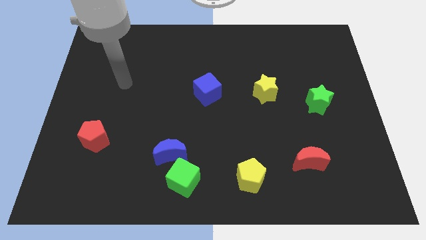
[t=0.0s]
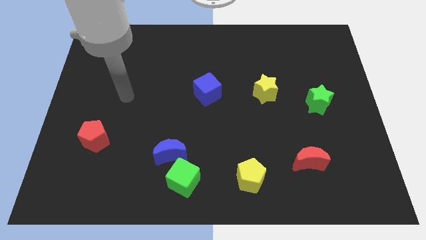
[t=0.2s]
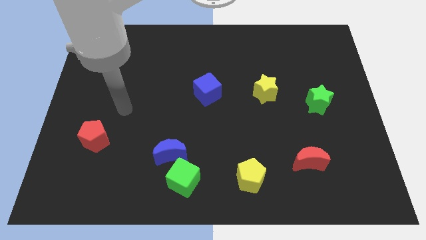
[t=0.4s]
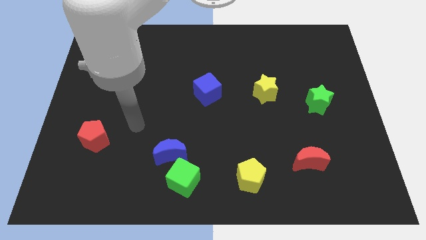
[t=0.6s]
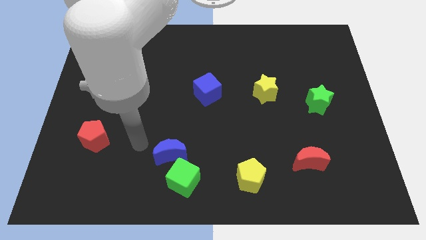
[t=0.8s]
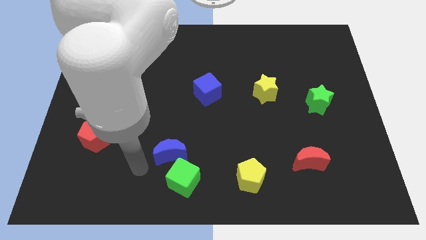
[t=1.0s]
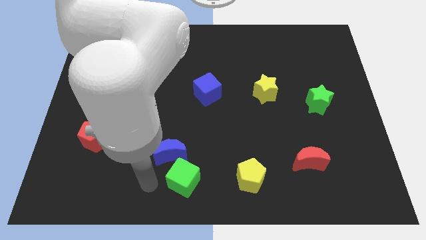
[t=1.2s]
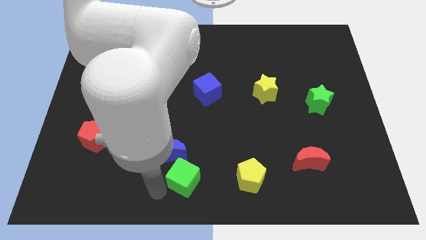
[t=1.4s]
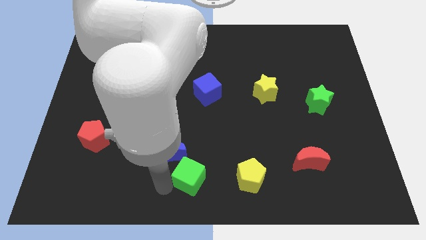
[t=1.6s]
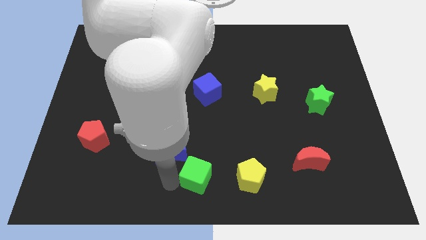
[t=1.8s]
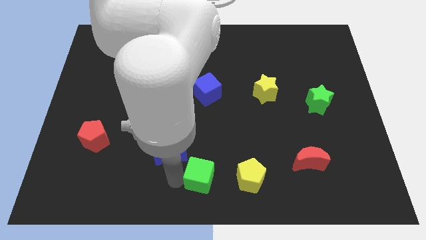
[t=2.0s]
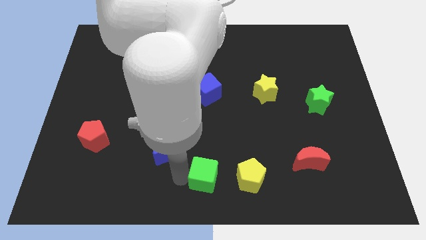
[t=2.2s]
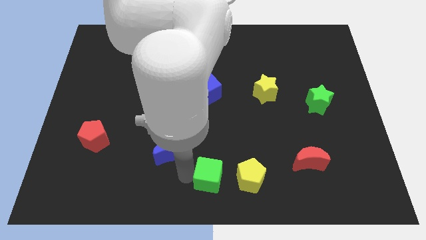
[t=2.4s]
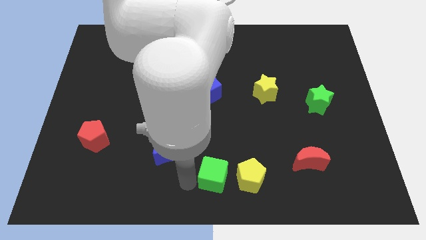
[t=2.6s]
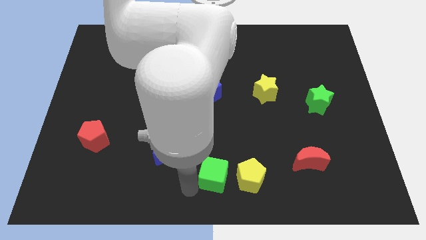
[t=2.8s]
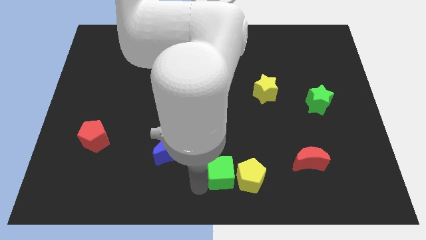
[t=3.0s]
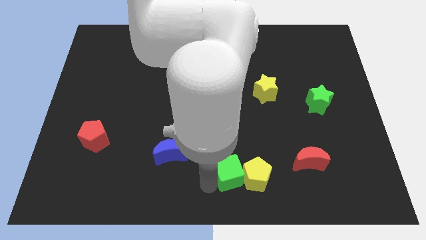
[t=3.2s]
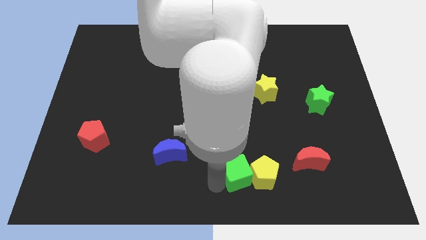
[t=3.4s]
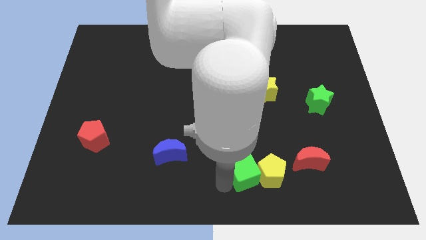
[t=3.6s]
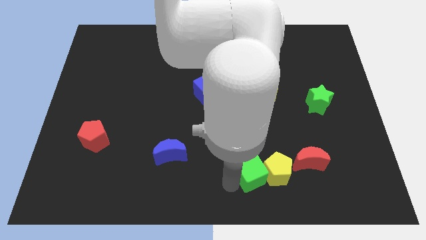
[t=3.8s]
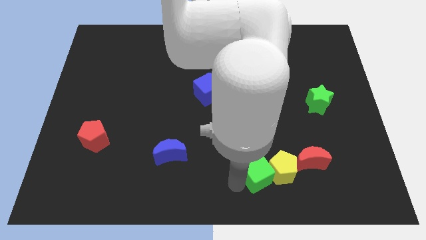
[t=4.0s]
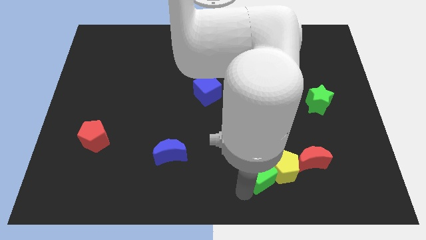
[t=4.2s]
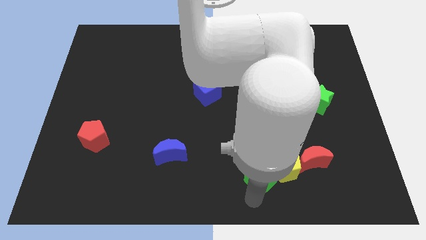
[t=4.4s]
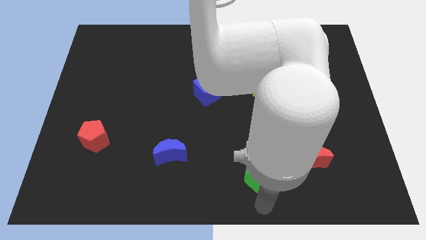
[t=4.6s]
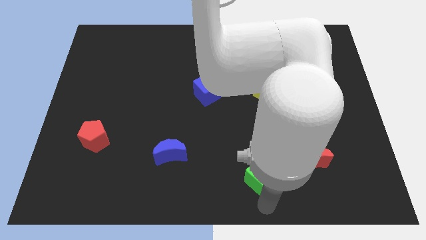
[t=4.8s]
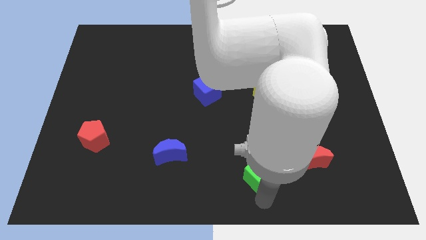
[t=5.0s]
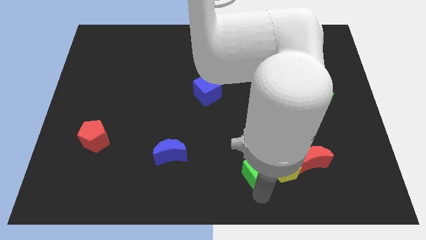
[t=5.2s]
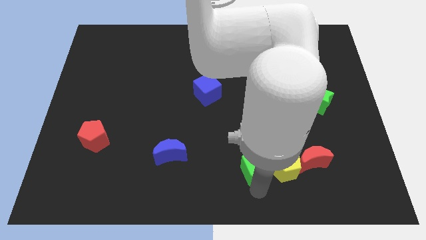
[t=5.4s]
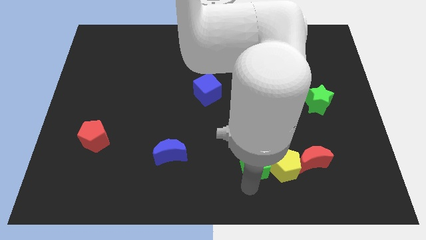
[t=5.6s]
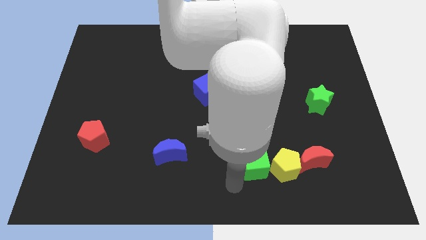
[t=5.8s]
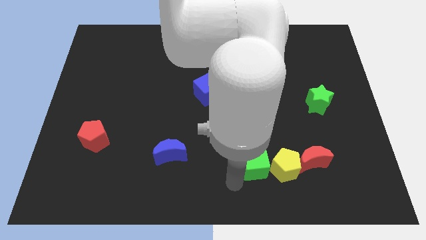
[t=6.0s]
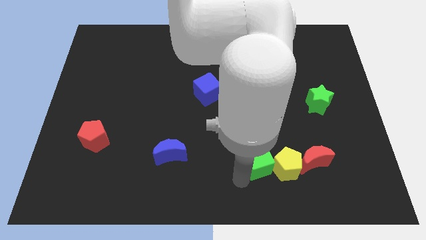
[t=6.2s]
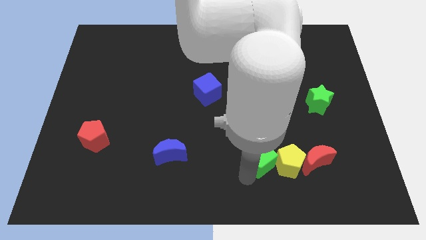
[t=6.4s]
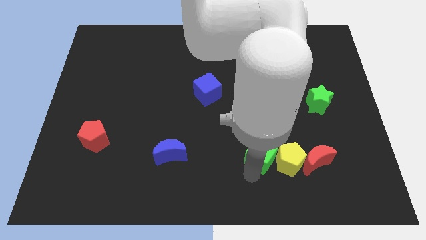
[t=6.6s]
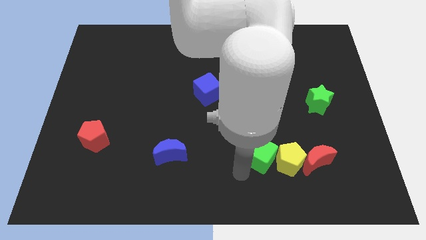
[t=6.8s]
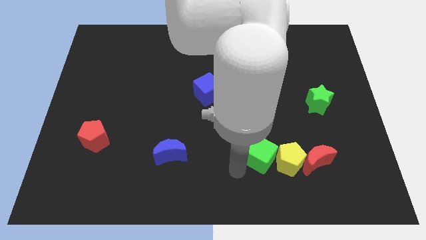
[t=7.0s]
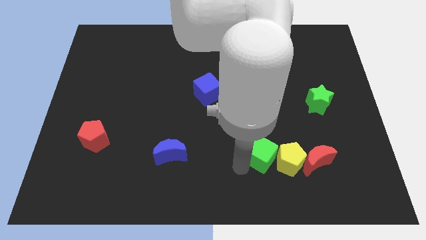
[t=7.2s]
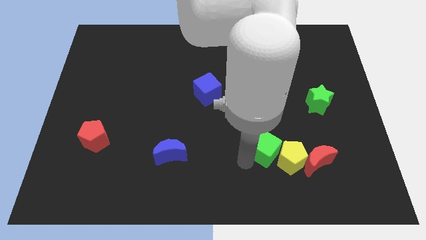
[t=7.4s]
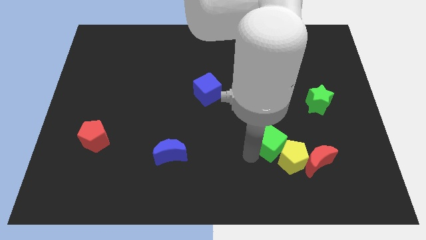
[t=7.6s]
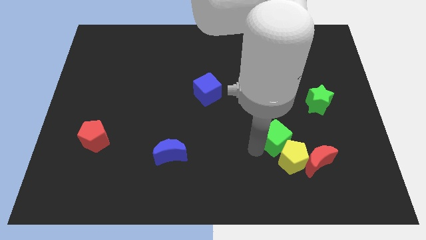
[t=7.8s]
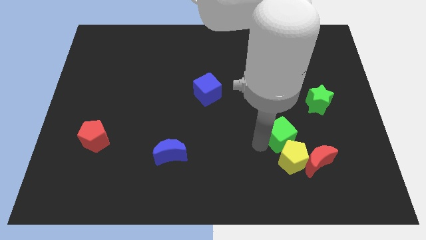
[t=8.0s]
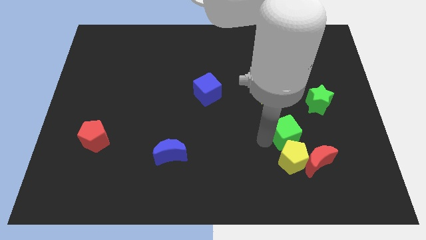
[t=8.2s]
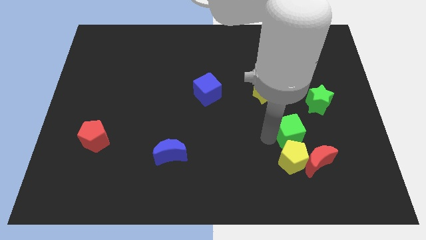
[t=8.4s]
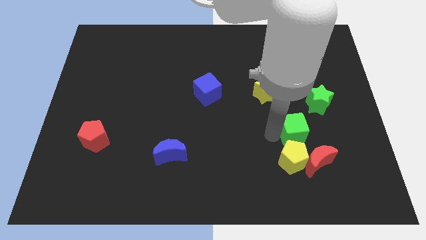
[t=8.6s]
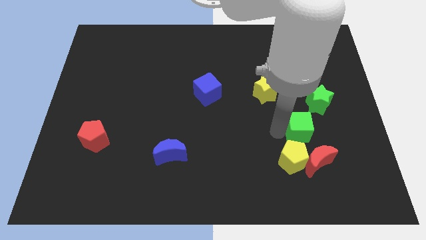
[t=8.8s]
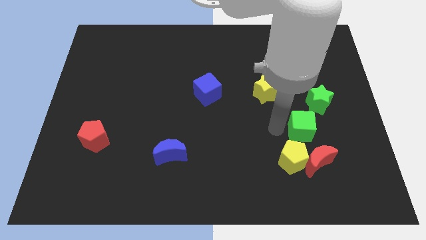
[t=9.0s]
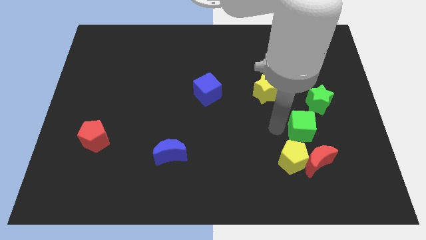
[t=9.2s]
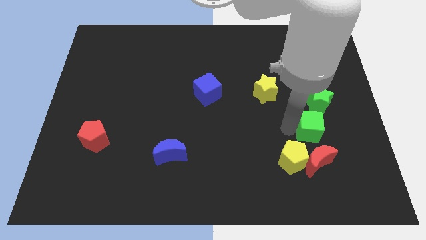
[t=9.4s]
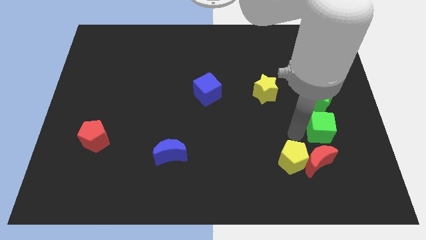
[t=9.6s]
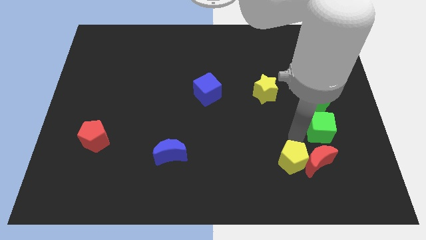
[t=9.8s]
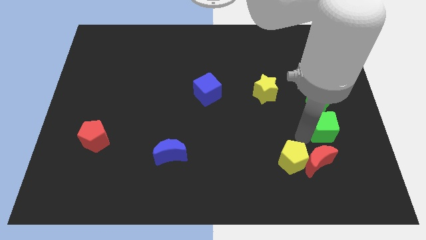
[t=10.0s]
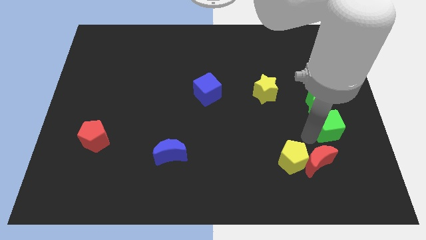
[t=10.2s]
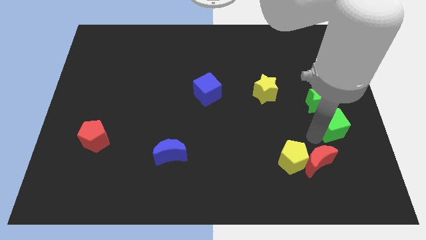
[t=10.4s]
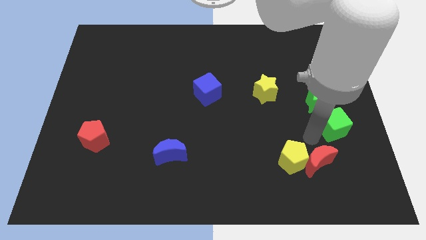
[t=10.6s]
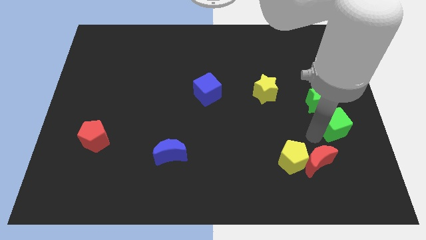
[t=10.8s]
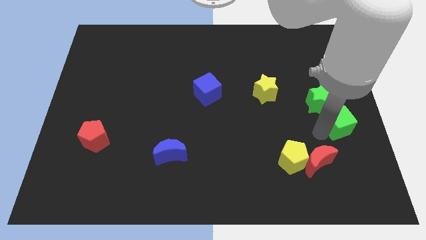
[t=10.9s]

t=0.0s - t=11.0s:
push the green cube to the right side of the board
